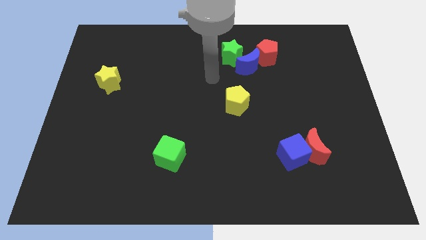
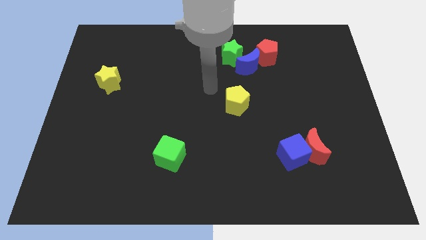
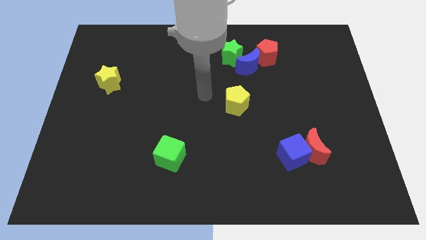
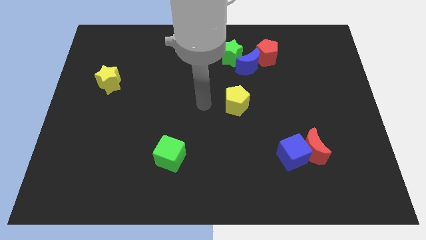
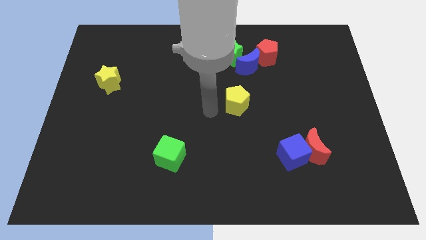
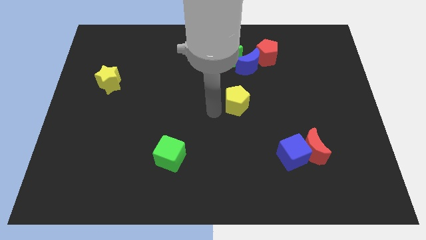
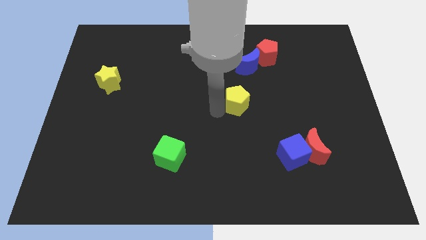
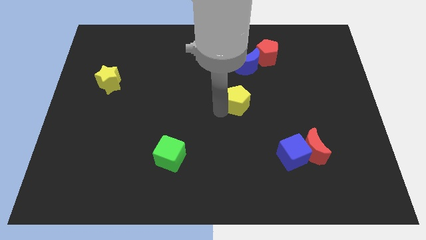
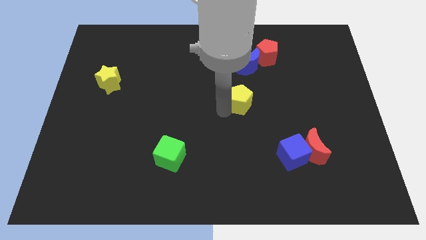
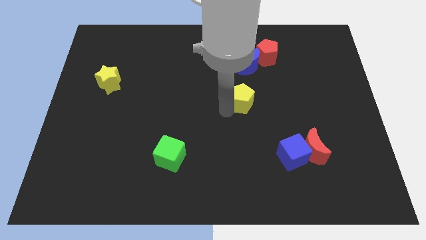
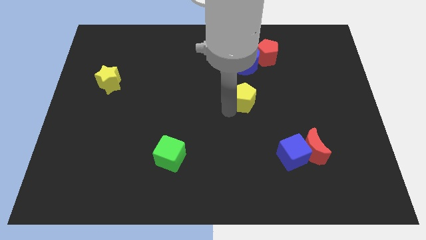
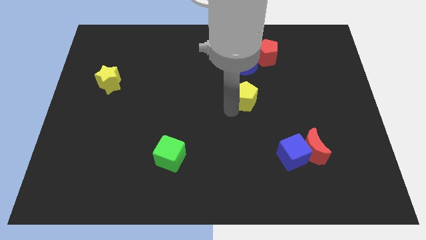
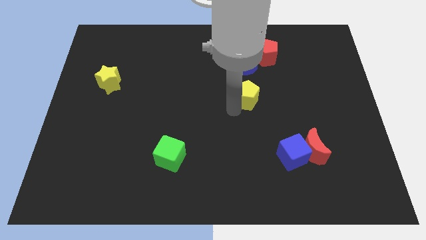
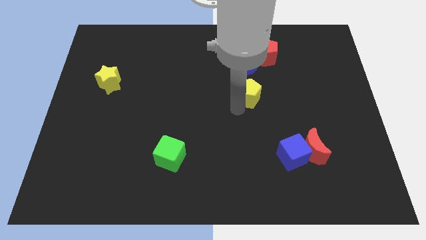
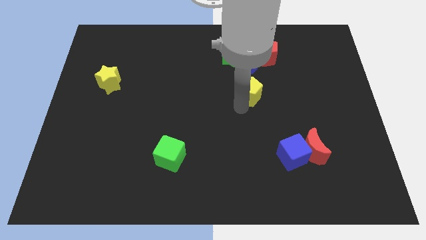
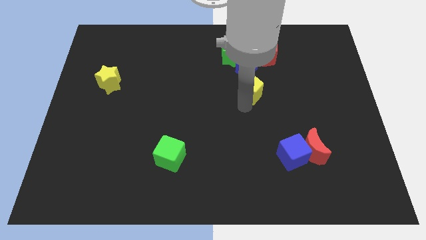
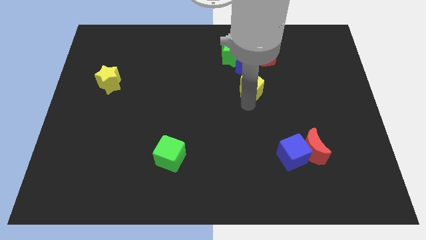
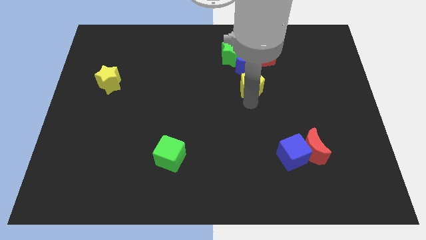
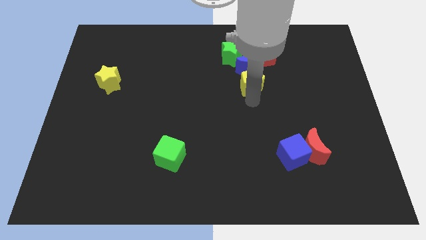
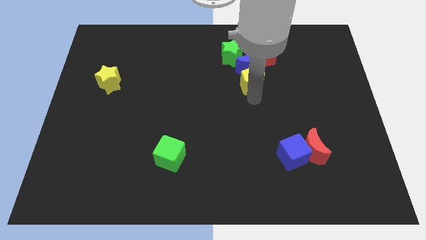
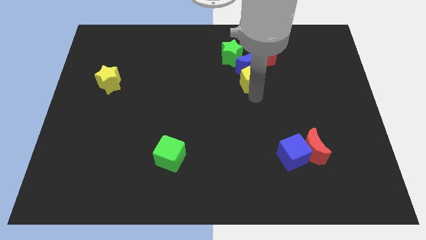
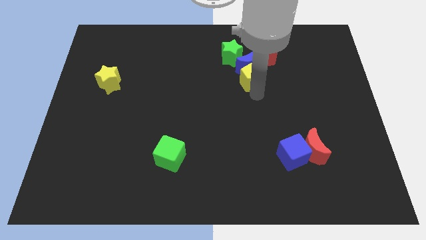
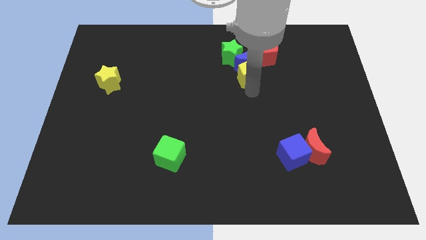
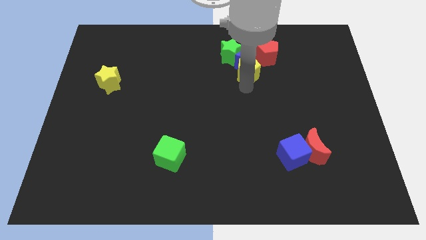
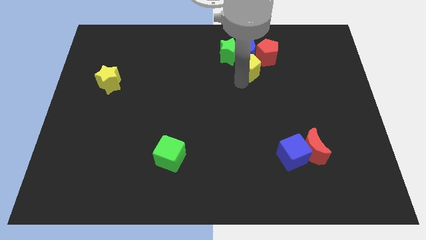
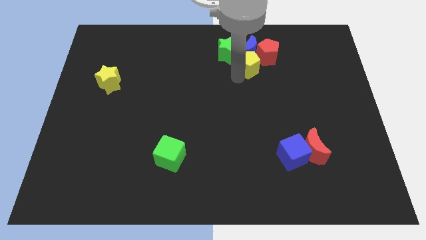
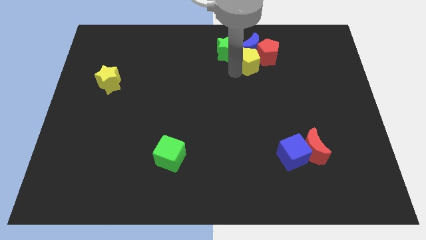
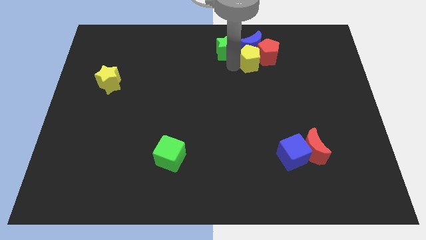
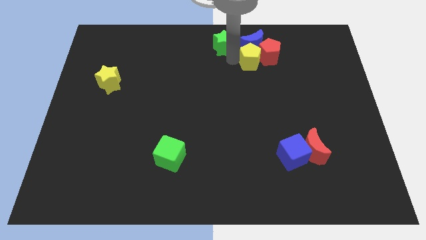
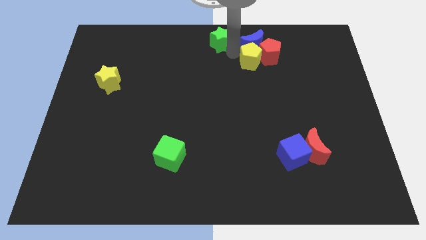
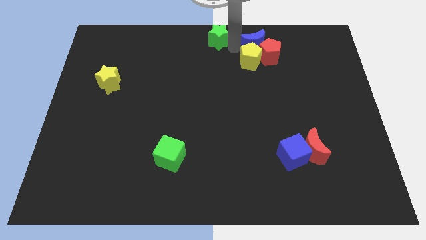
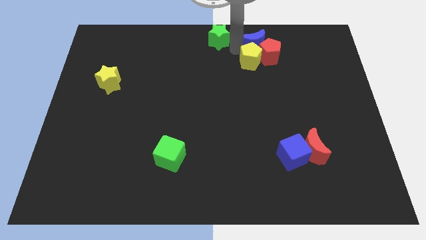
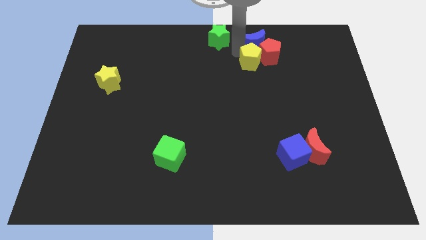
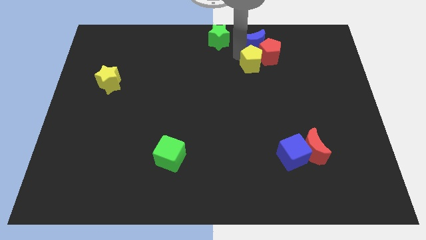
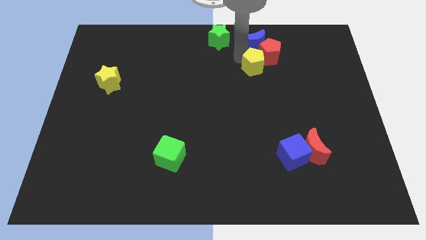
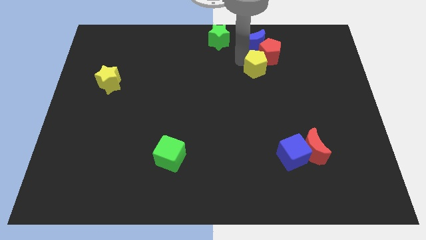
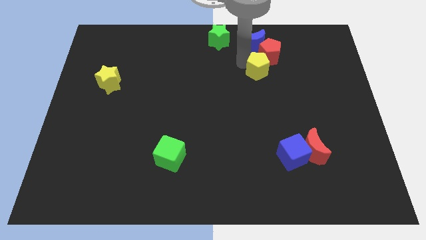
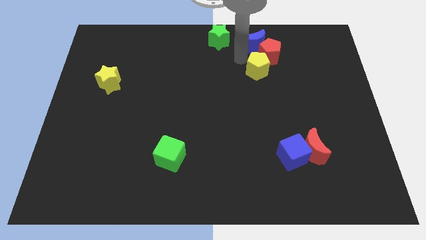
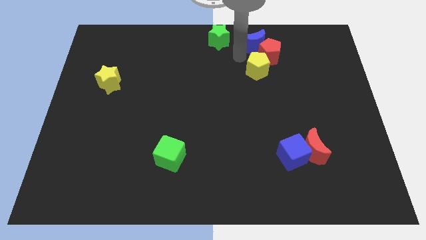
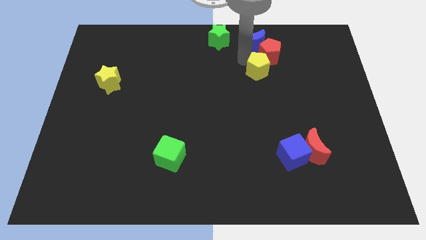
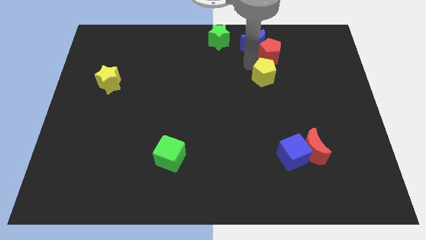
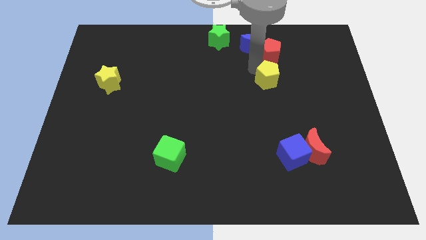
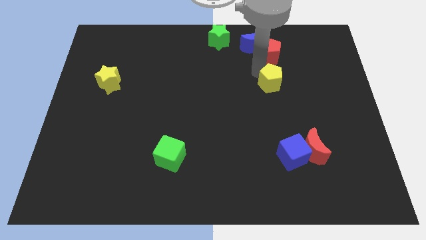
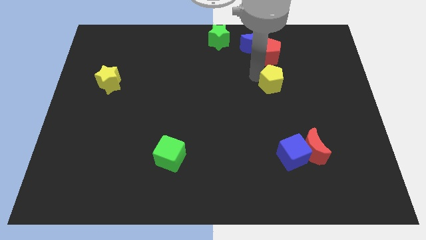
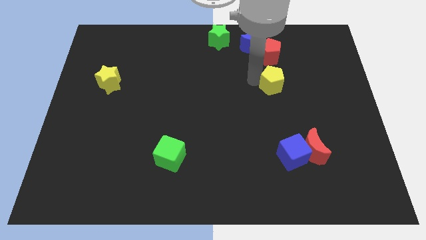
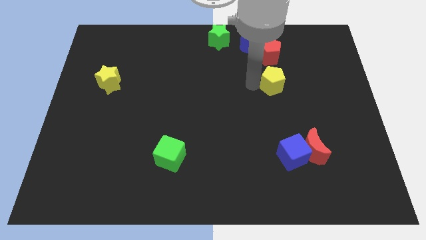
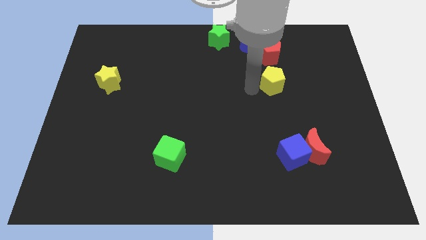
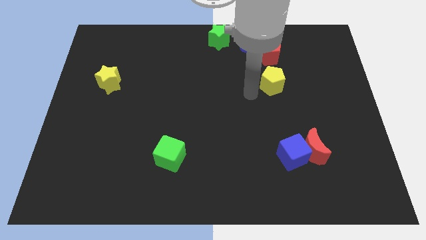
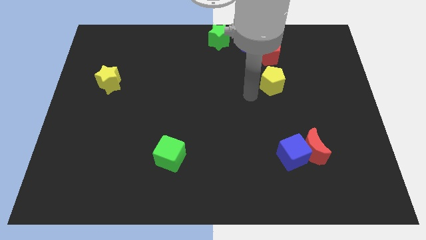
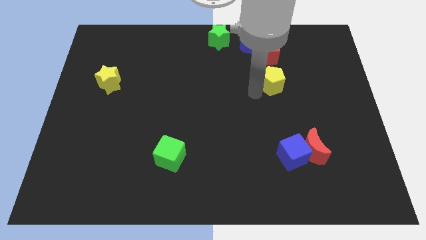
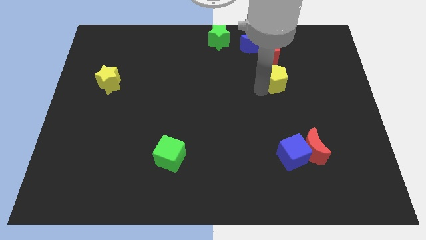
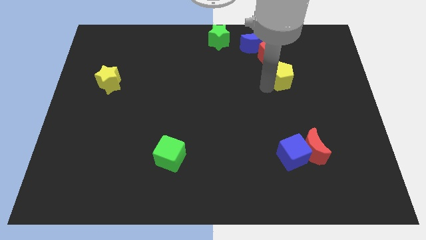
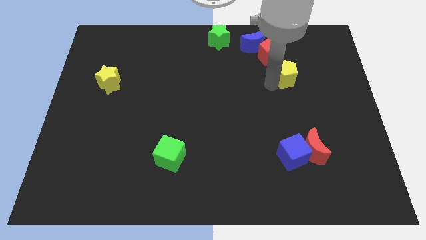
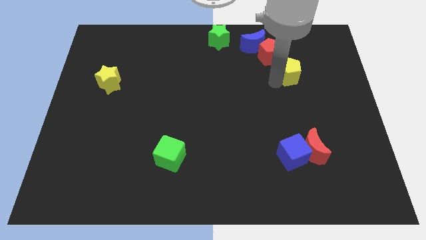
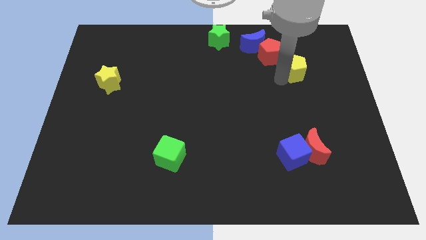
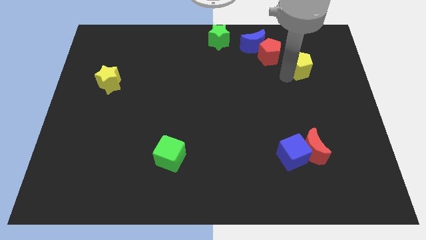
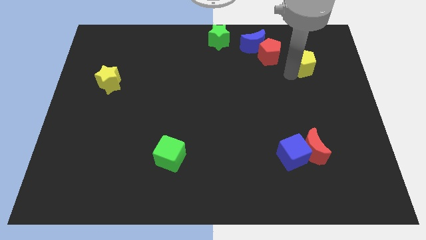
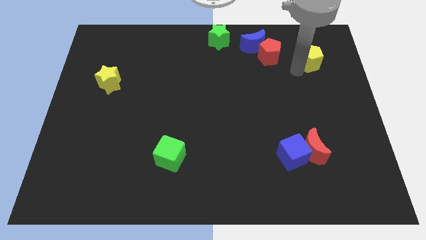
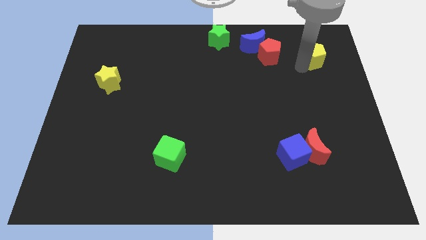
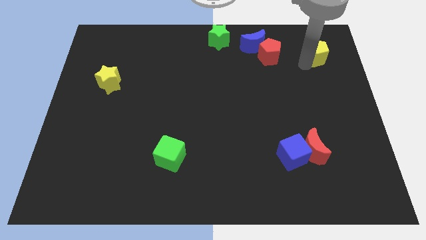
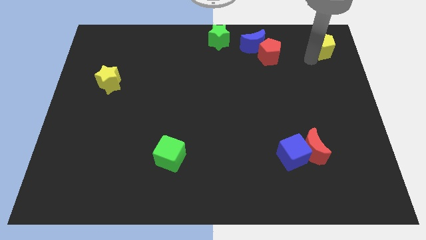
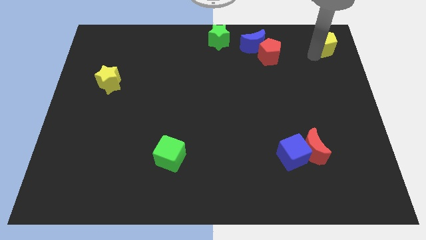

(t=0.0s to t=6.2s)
put the yellow pentagon to the top right of the board

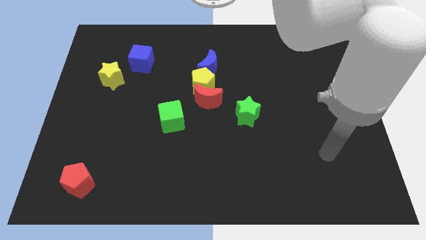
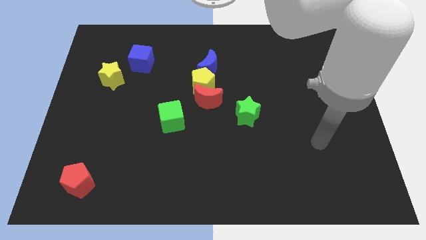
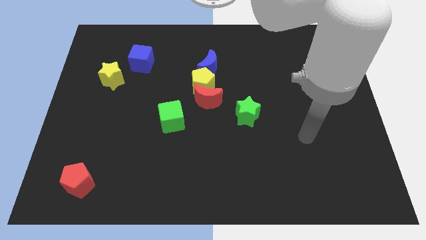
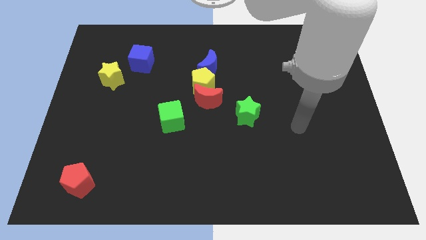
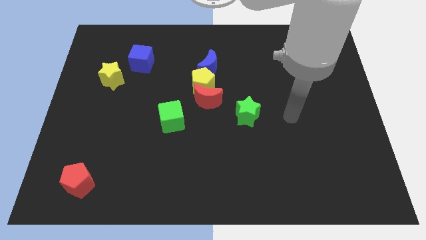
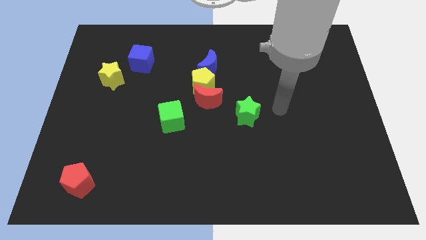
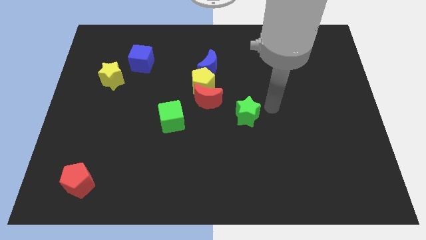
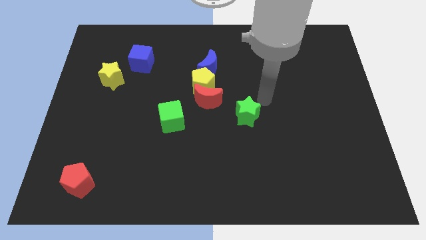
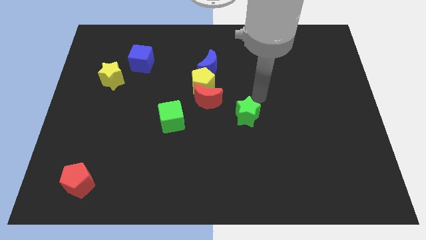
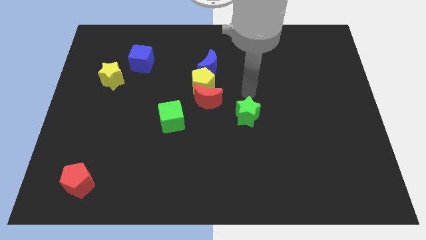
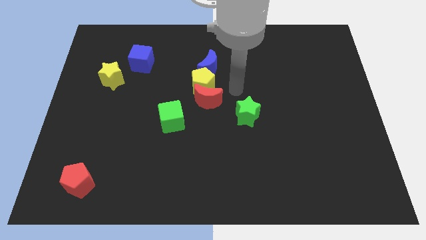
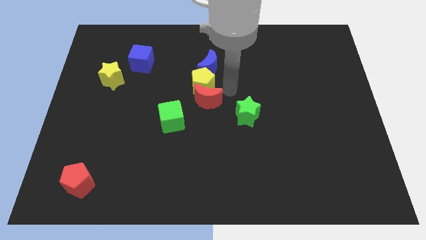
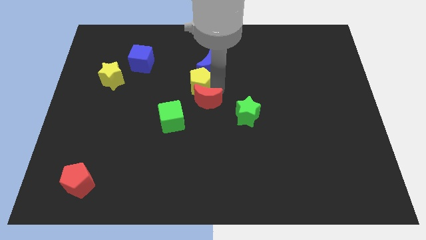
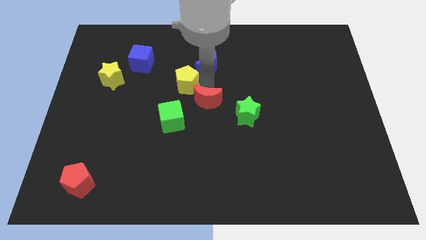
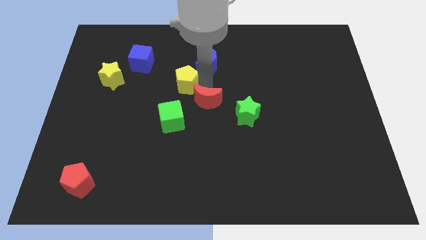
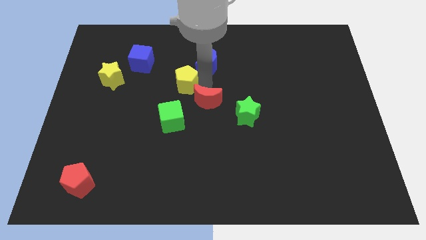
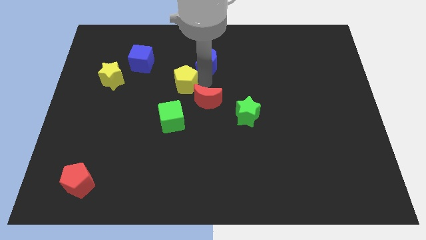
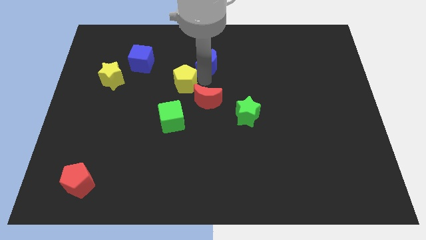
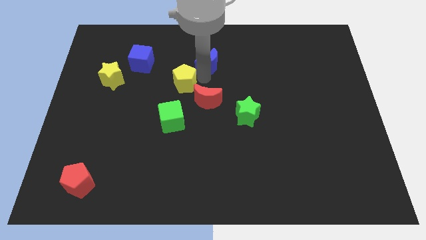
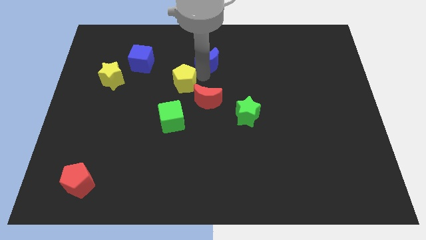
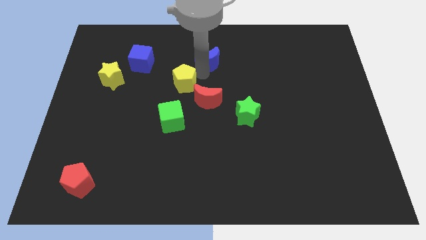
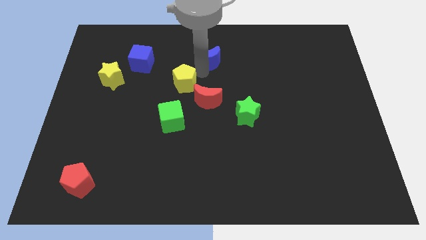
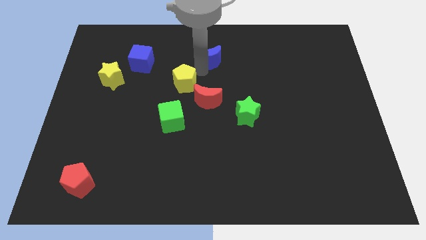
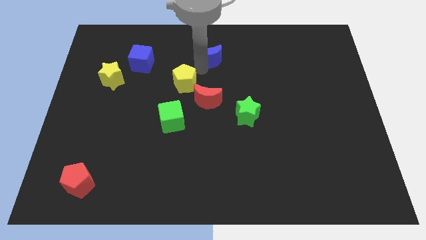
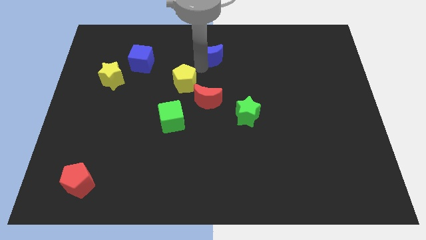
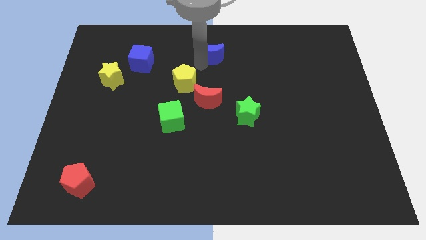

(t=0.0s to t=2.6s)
push the blue moon to the top
